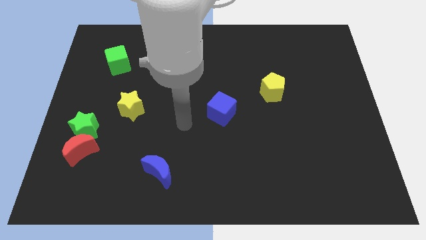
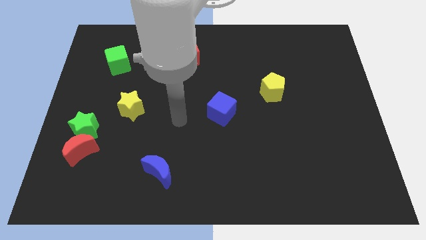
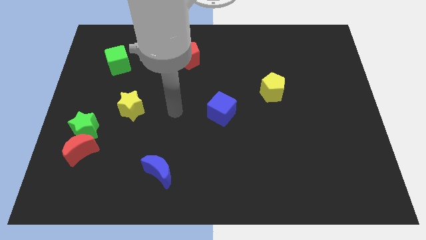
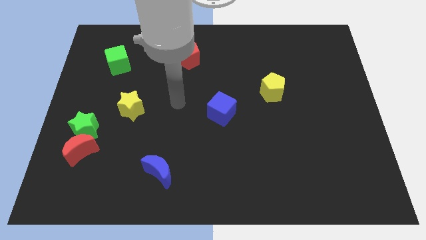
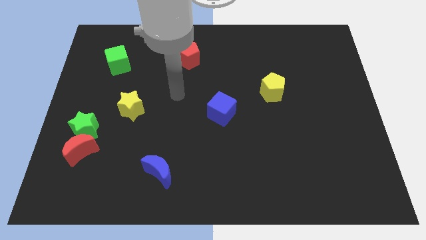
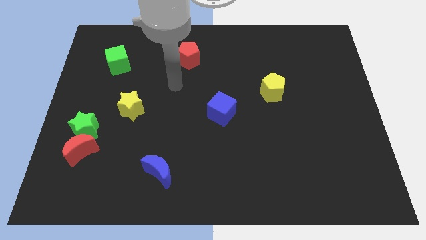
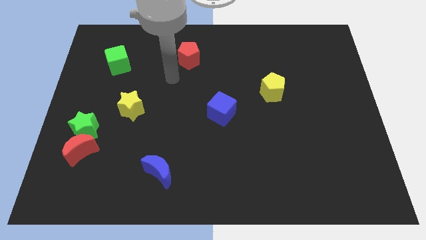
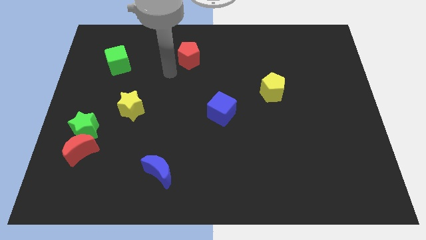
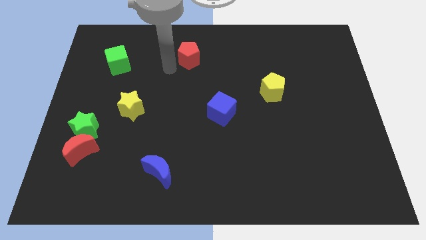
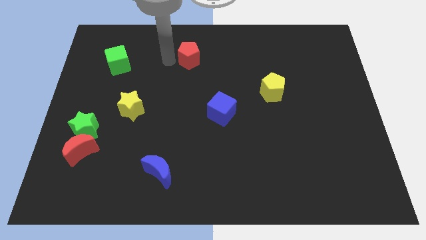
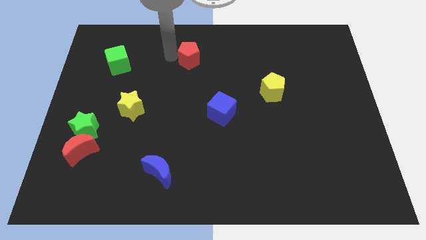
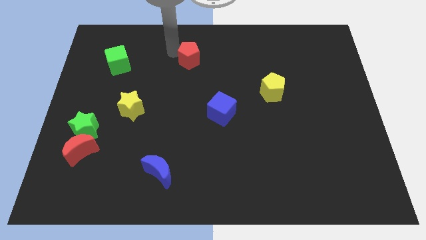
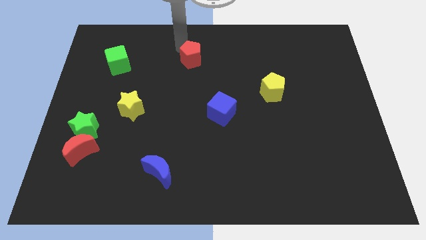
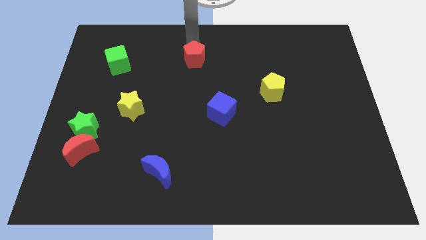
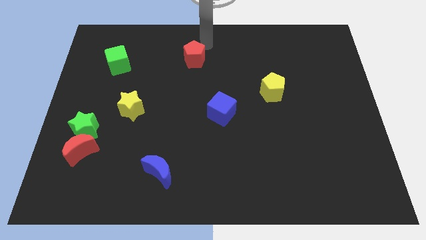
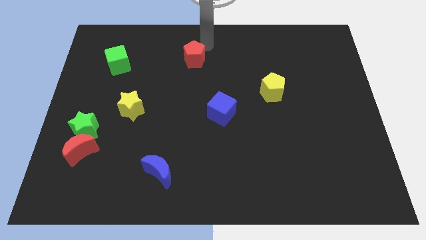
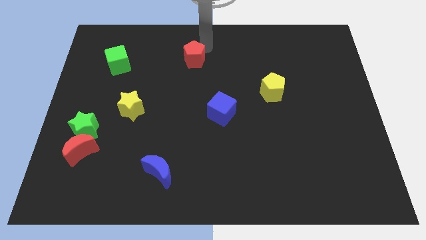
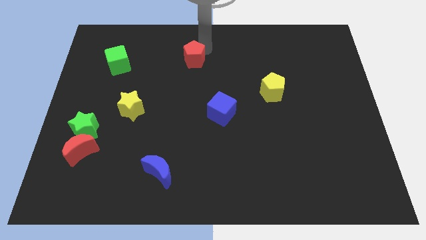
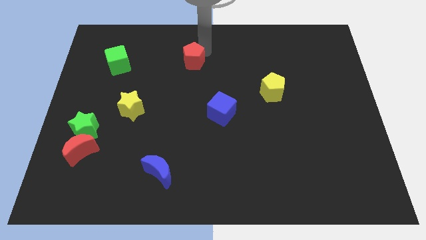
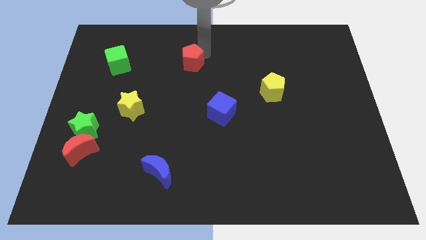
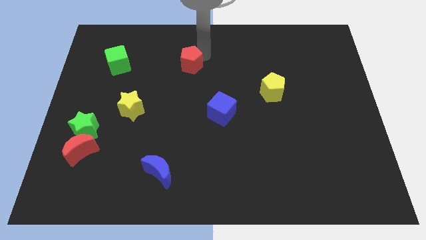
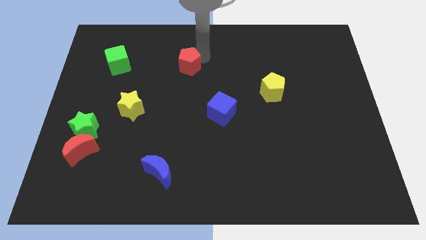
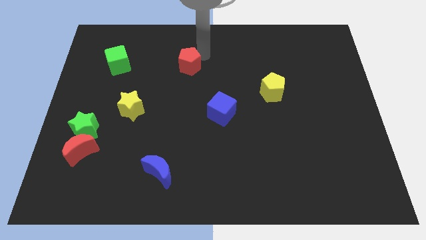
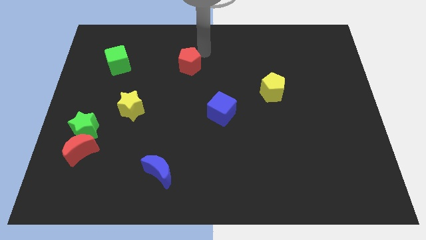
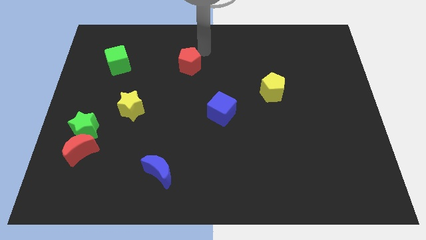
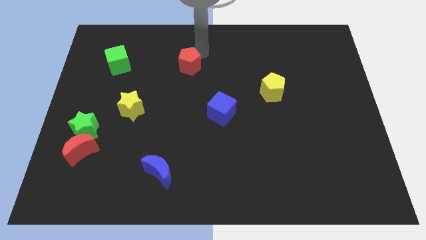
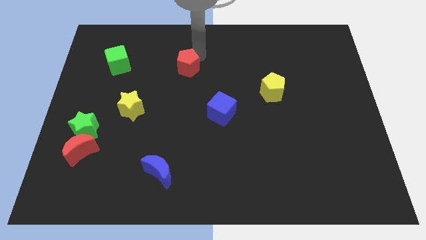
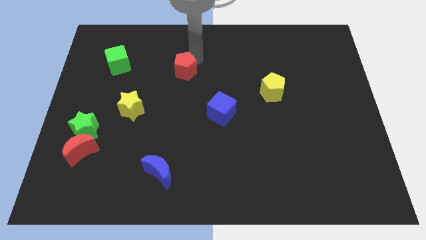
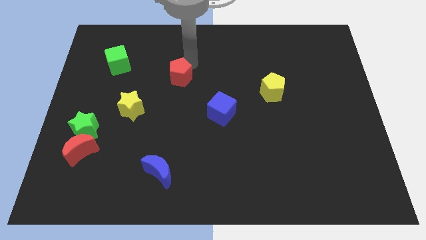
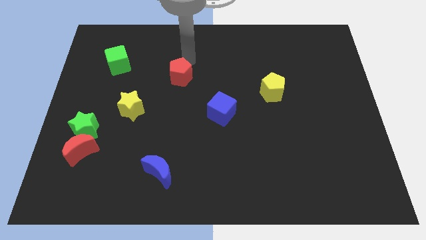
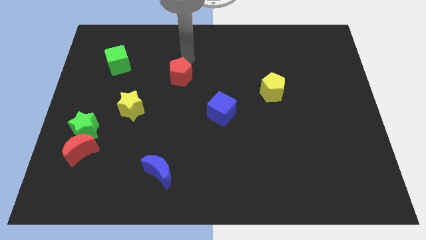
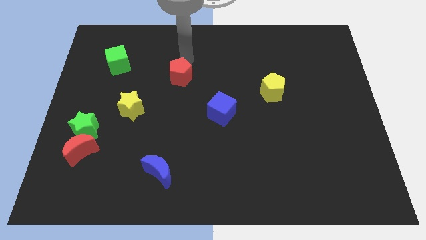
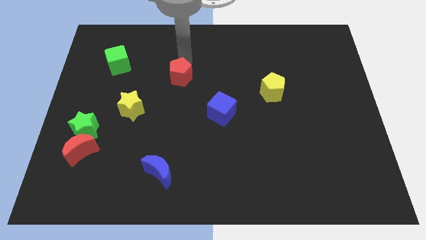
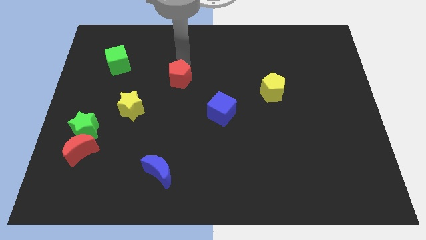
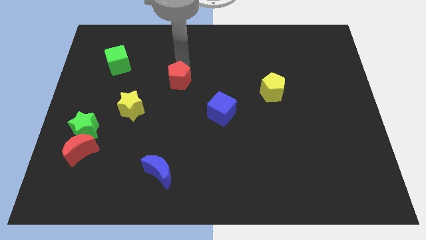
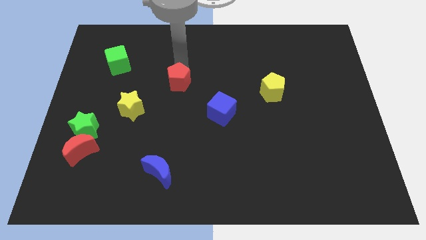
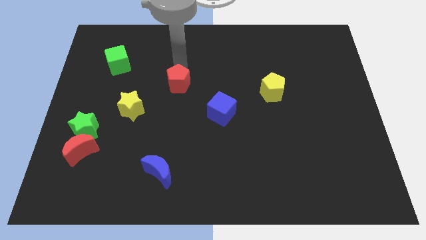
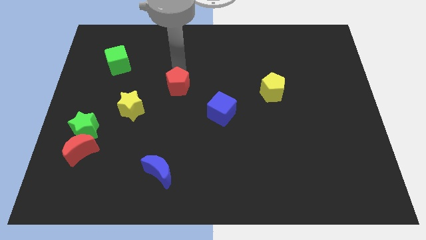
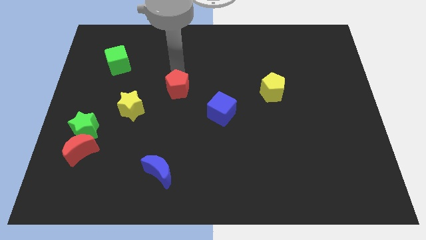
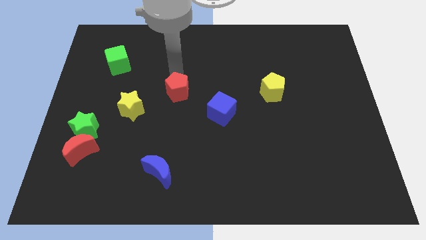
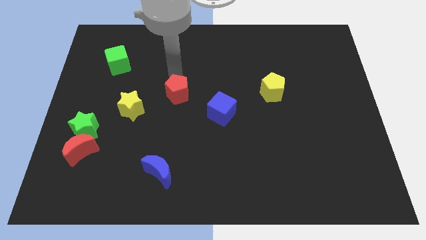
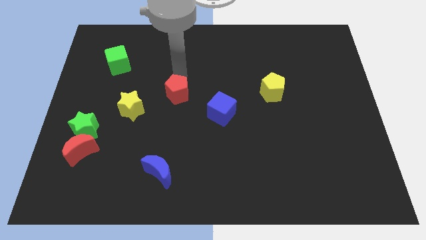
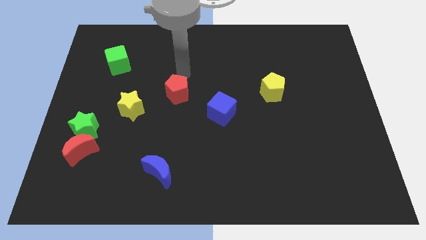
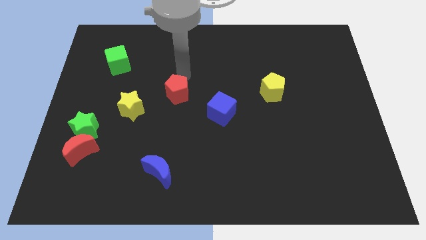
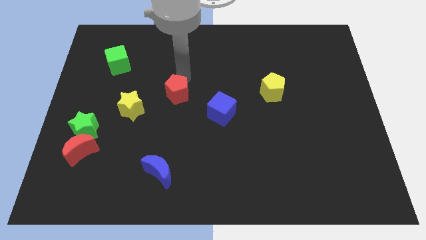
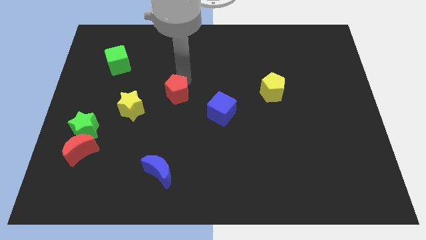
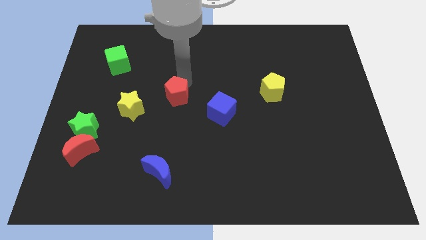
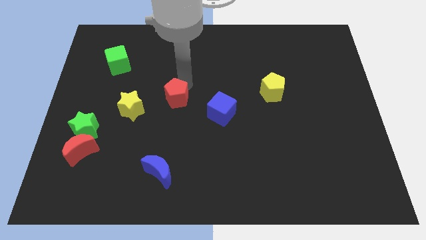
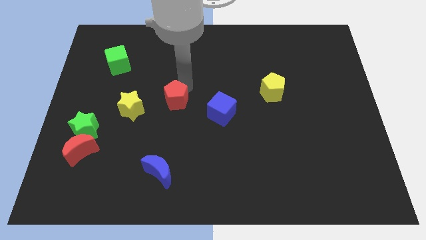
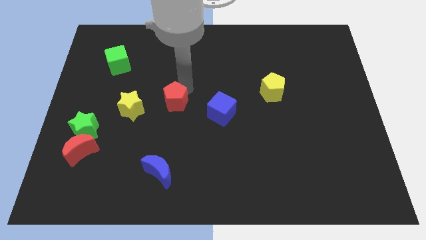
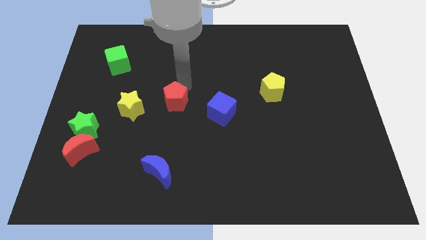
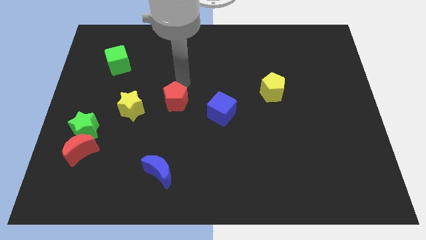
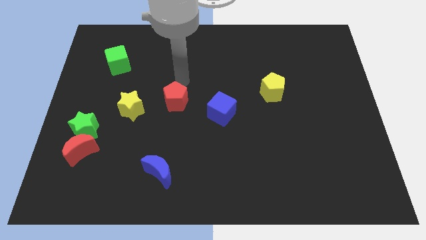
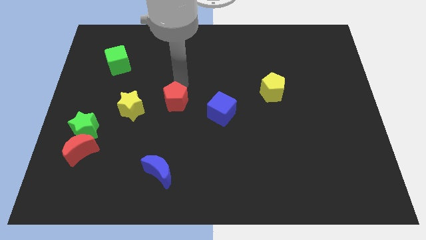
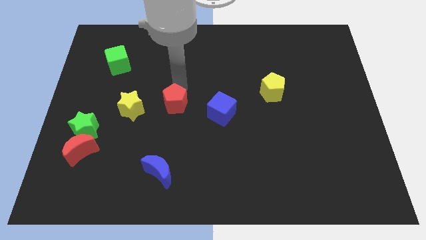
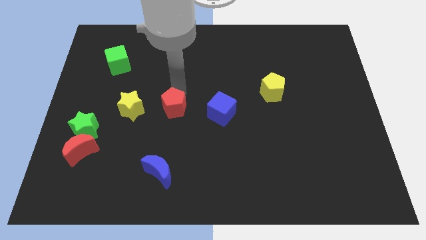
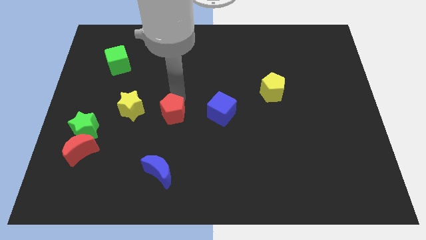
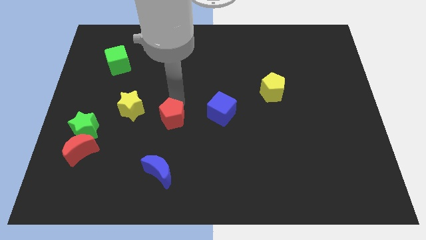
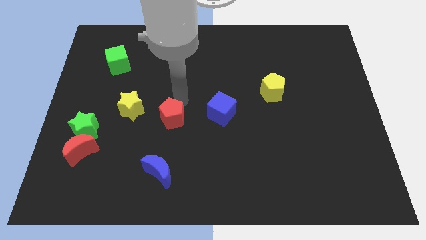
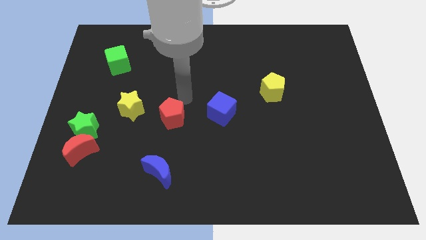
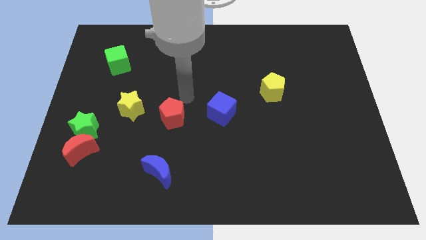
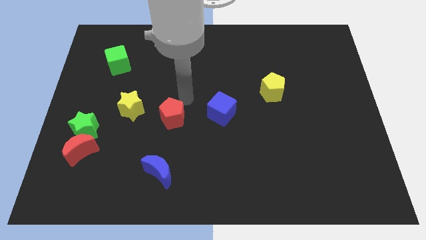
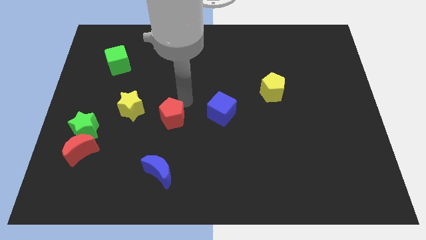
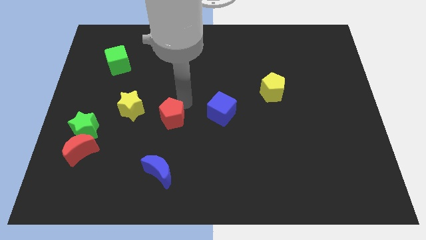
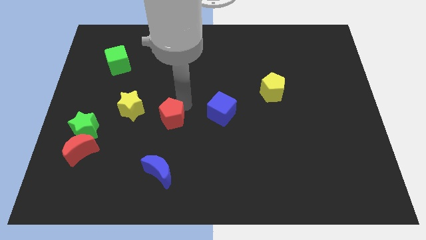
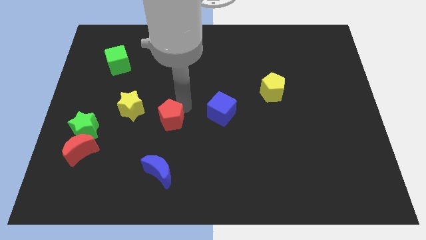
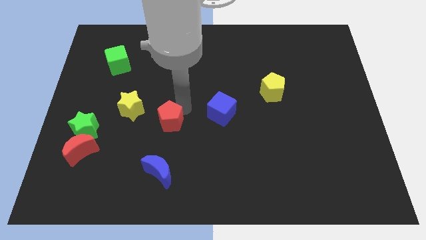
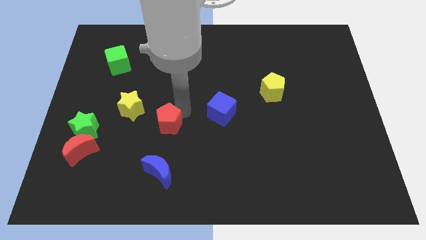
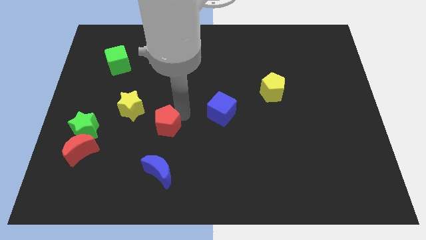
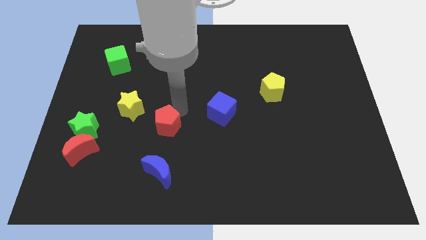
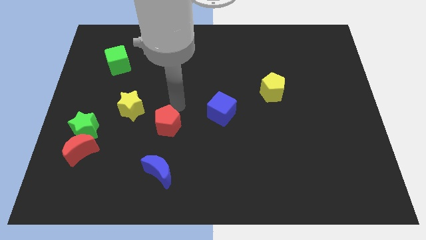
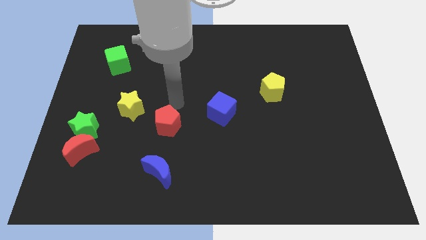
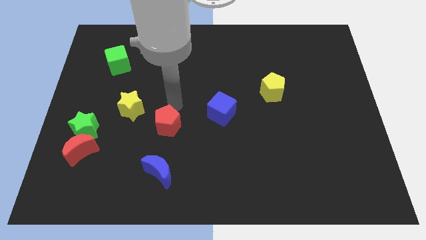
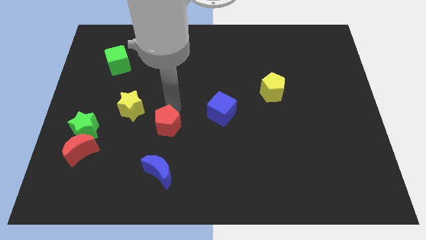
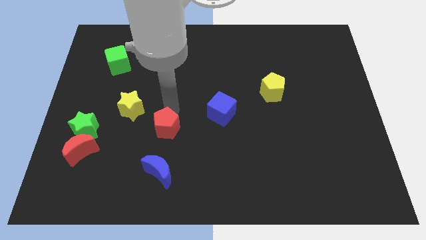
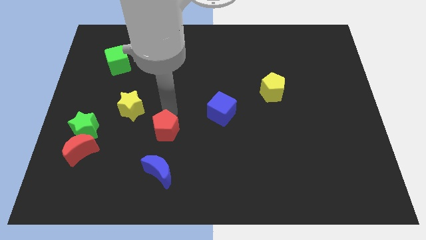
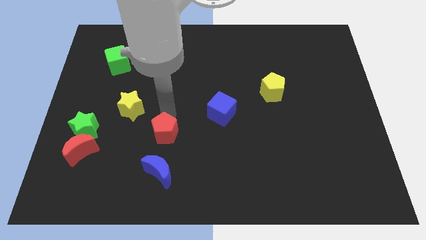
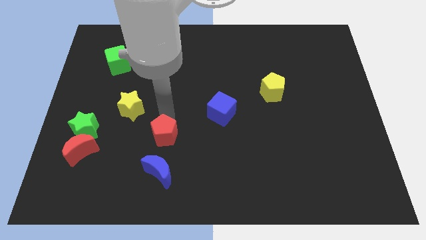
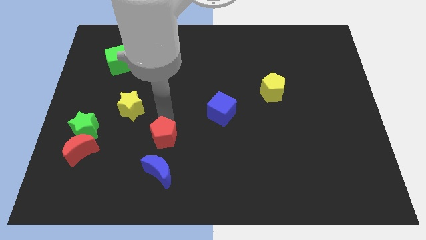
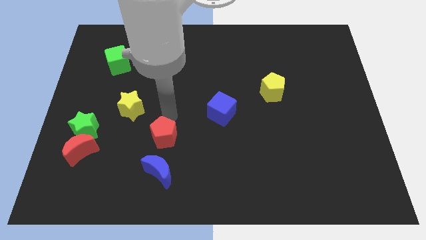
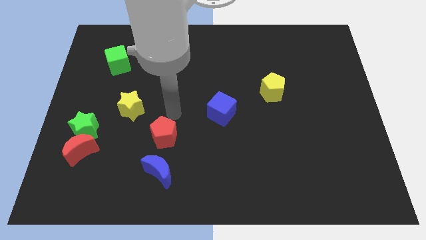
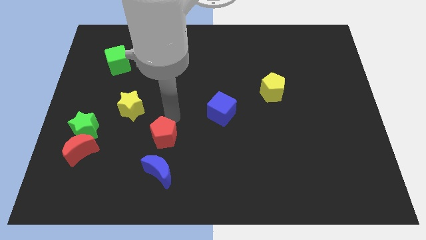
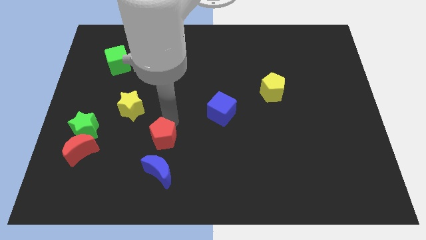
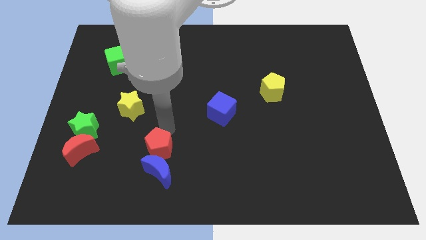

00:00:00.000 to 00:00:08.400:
slide the red pentagon to the blue moon
